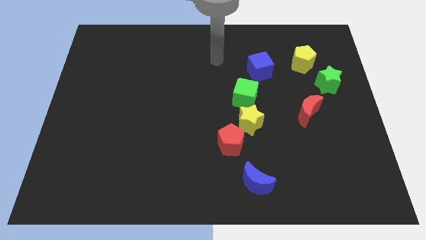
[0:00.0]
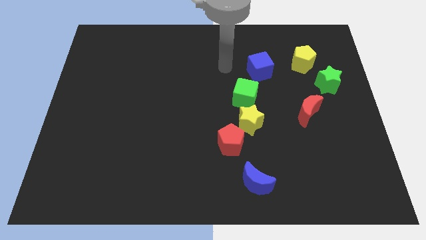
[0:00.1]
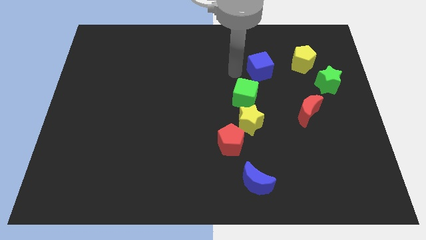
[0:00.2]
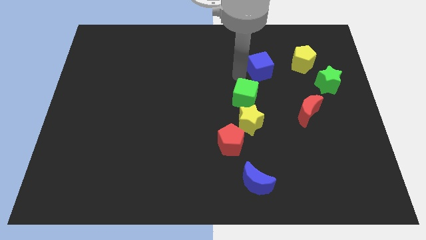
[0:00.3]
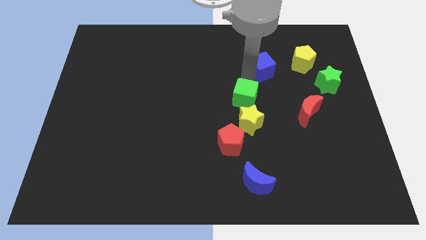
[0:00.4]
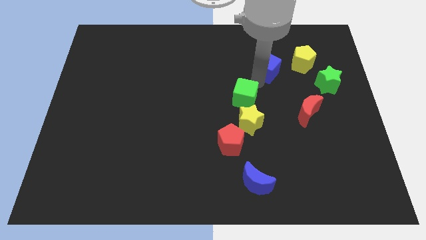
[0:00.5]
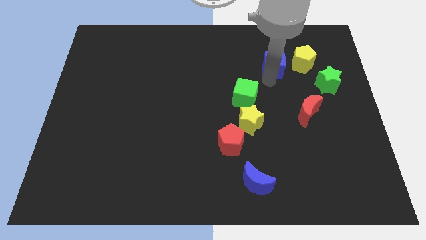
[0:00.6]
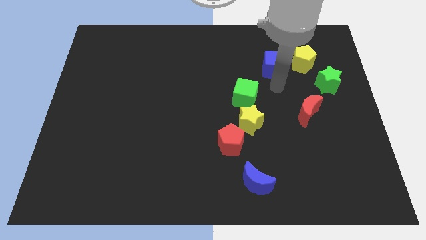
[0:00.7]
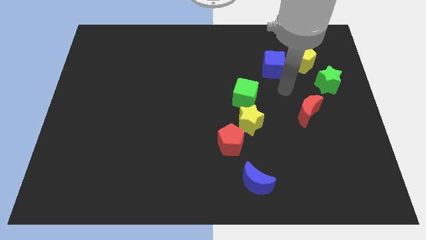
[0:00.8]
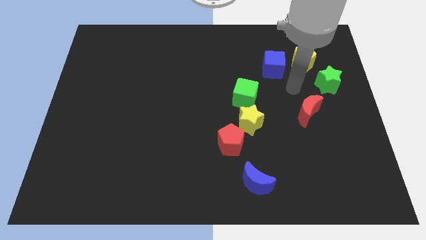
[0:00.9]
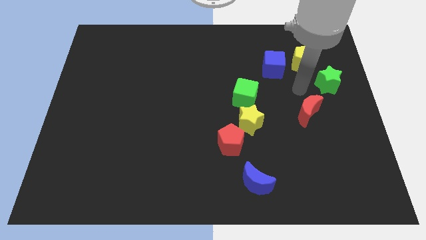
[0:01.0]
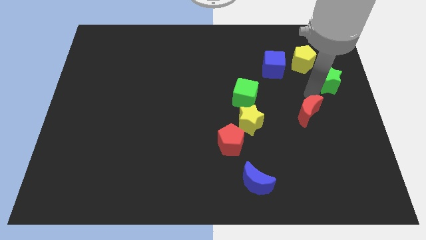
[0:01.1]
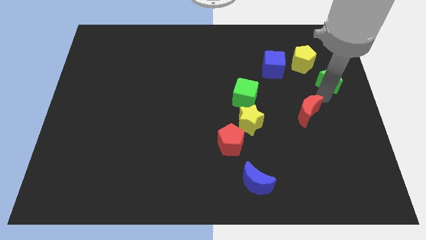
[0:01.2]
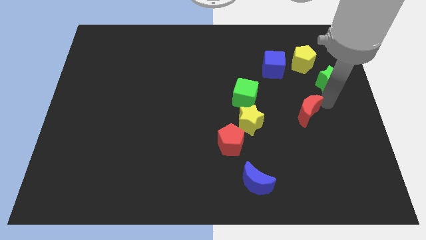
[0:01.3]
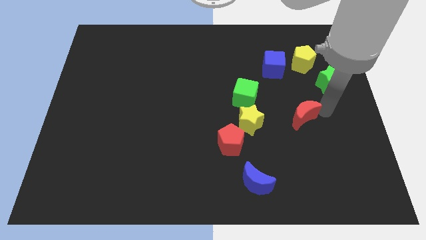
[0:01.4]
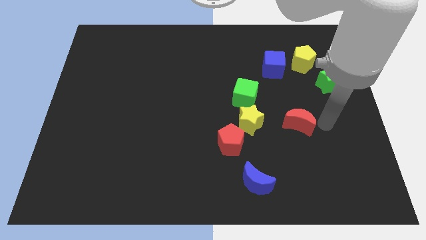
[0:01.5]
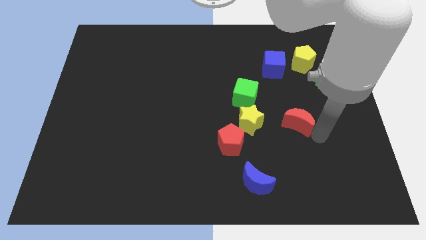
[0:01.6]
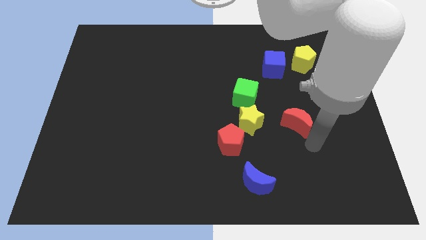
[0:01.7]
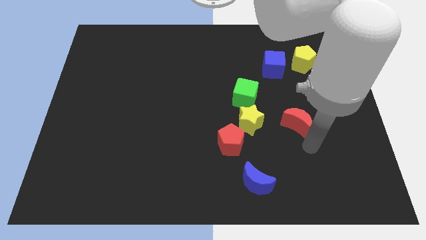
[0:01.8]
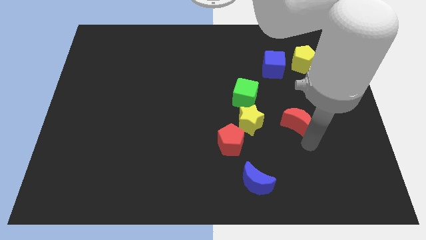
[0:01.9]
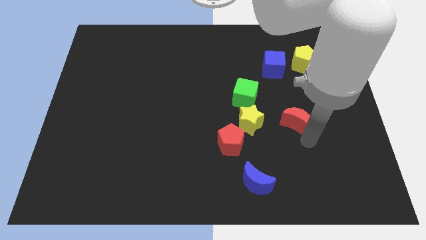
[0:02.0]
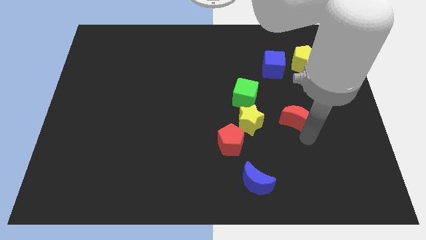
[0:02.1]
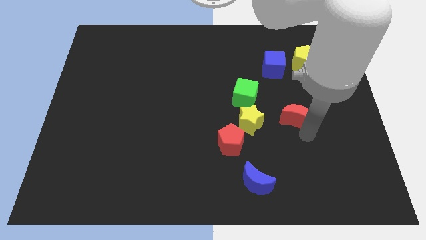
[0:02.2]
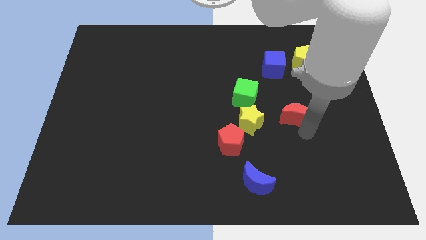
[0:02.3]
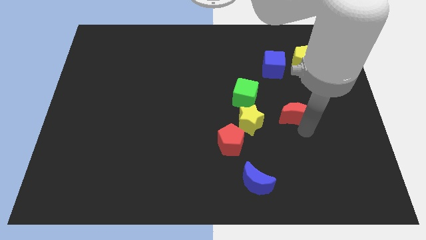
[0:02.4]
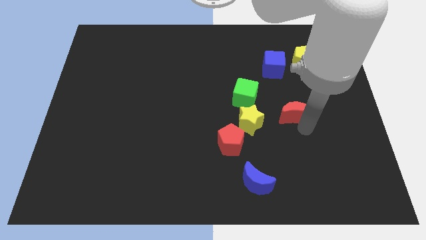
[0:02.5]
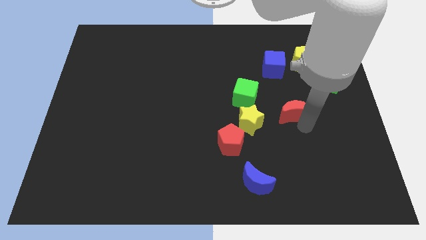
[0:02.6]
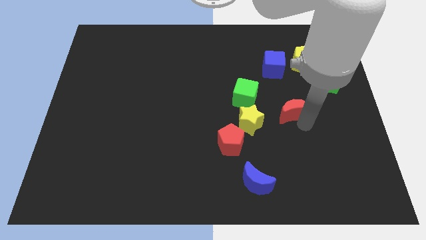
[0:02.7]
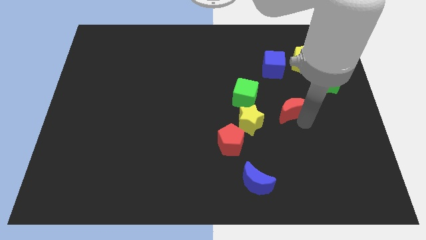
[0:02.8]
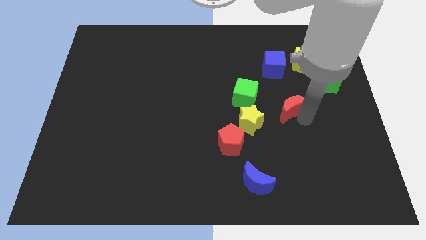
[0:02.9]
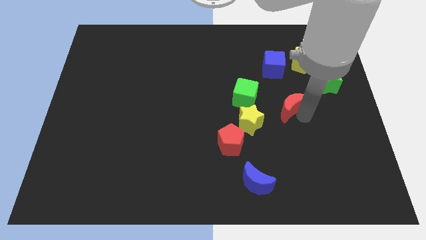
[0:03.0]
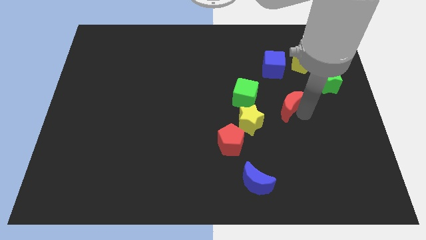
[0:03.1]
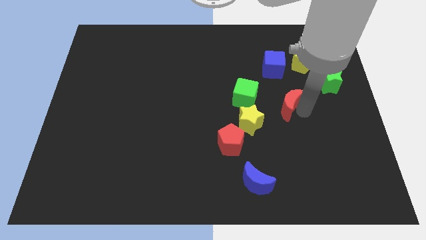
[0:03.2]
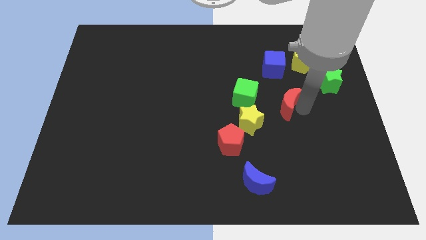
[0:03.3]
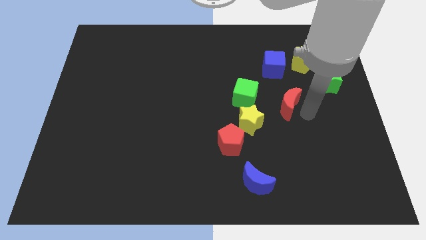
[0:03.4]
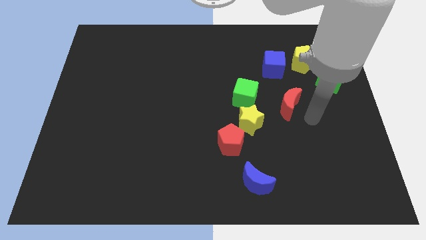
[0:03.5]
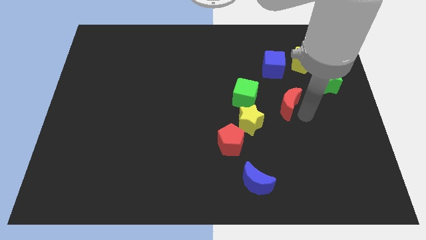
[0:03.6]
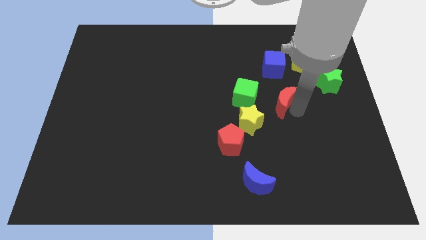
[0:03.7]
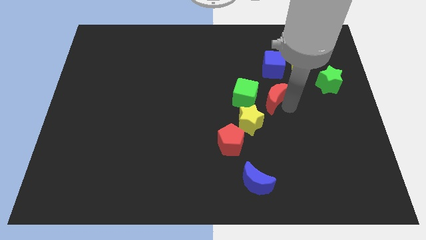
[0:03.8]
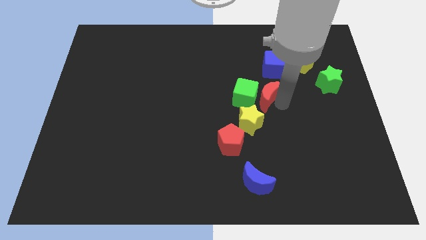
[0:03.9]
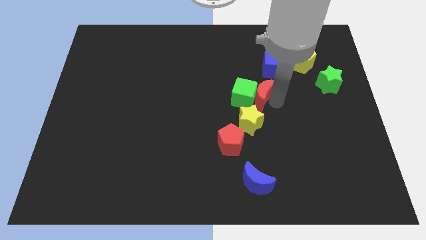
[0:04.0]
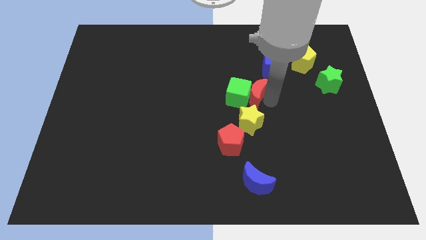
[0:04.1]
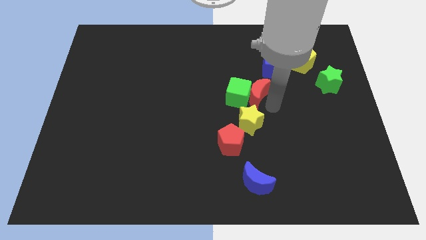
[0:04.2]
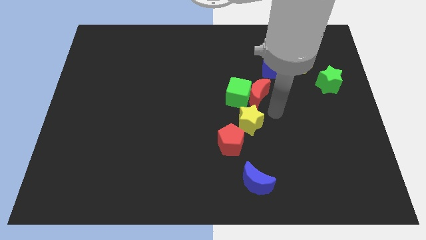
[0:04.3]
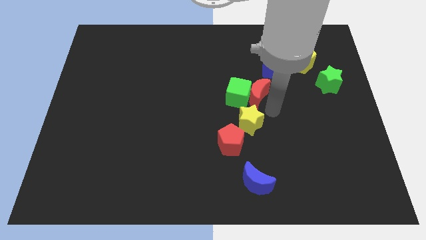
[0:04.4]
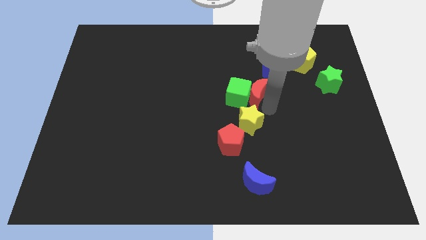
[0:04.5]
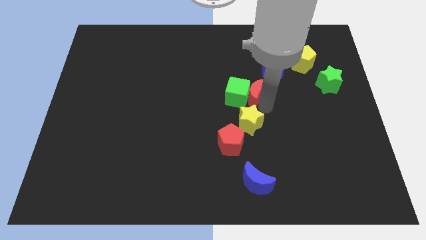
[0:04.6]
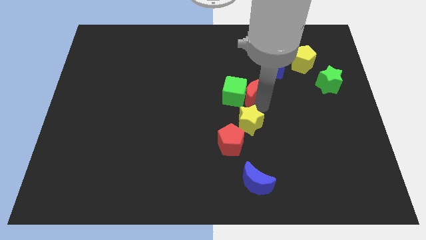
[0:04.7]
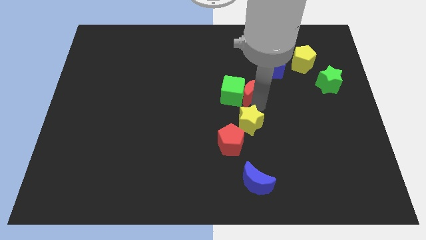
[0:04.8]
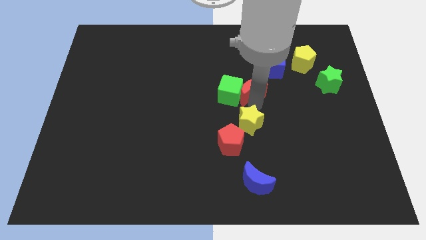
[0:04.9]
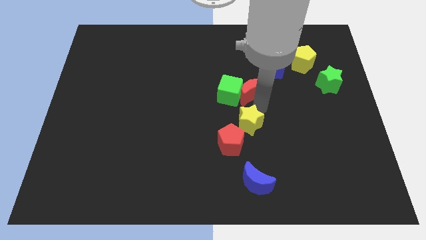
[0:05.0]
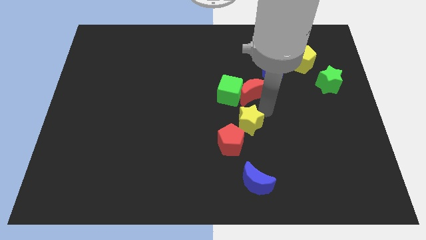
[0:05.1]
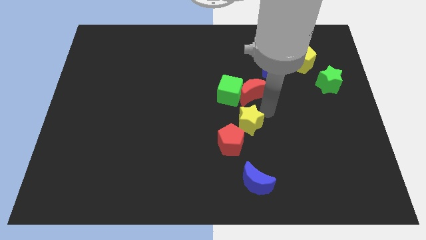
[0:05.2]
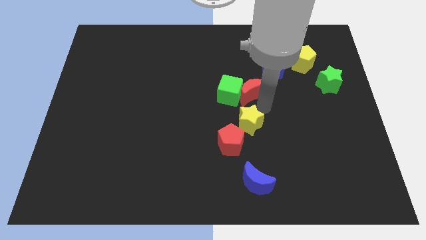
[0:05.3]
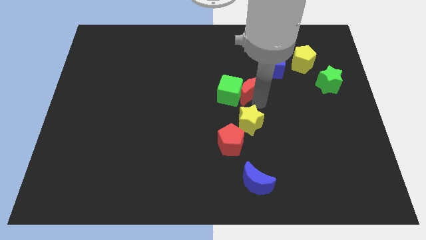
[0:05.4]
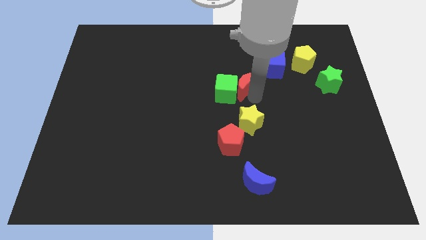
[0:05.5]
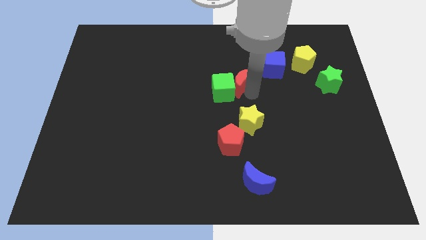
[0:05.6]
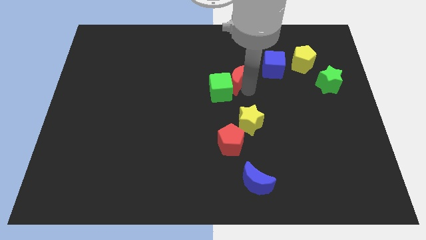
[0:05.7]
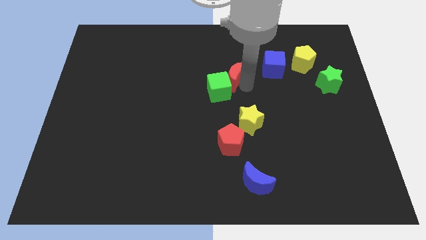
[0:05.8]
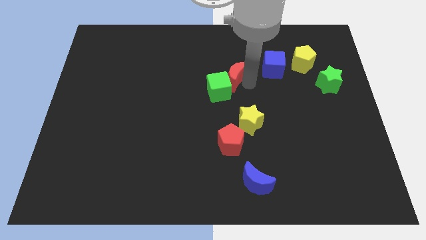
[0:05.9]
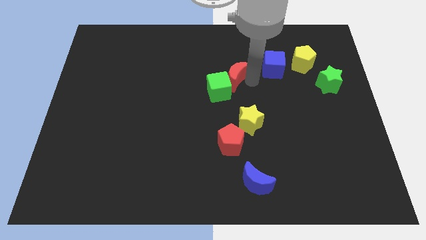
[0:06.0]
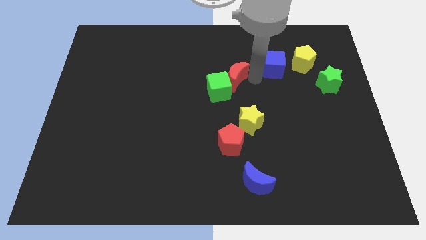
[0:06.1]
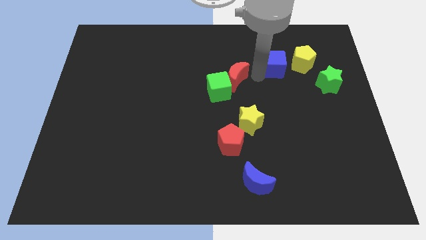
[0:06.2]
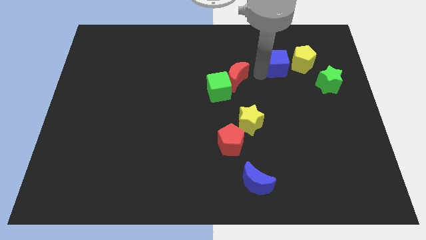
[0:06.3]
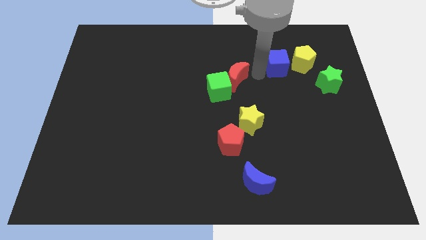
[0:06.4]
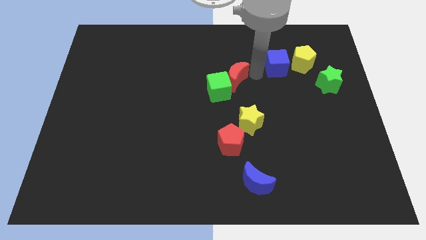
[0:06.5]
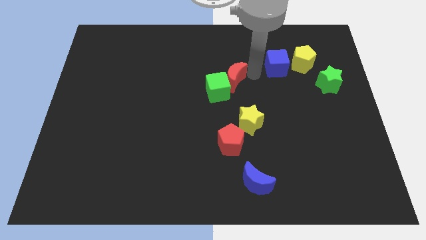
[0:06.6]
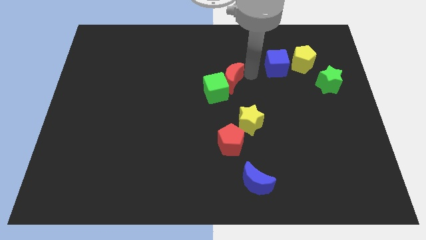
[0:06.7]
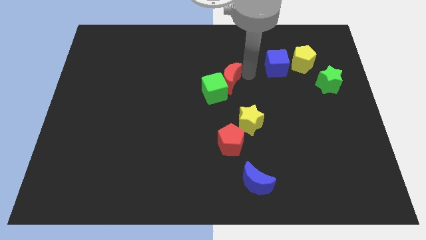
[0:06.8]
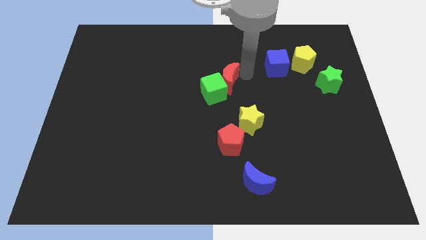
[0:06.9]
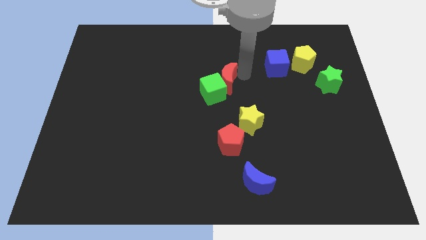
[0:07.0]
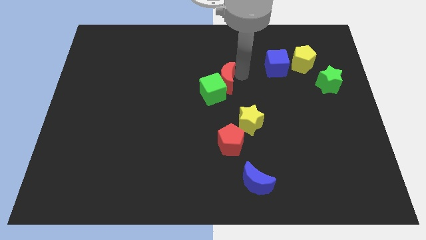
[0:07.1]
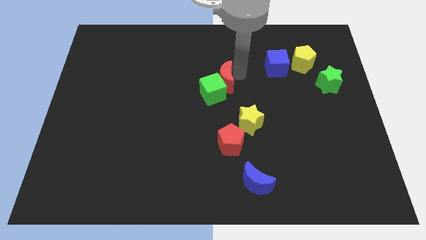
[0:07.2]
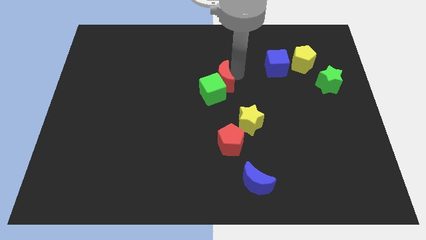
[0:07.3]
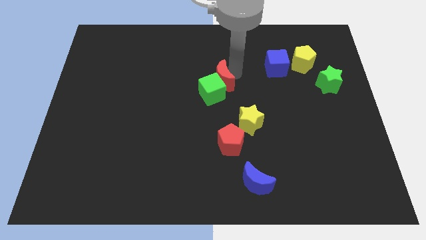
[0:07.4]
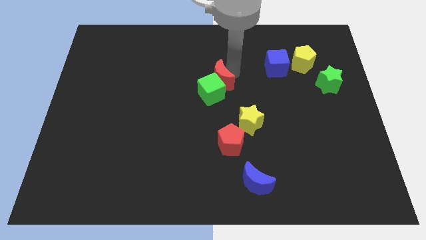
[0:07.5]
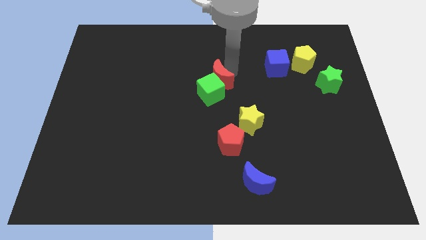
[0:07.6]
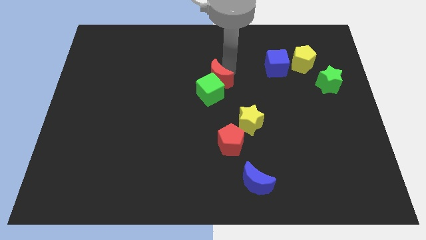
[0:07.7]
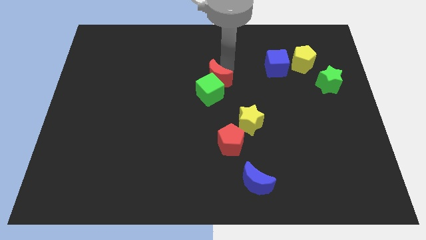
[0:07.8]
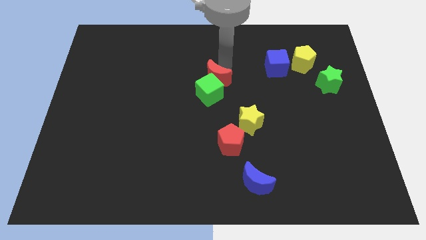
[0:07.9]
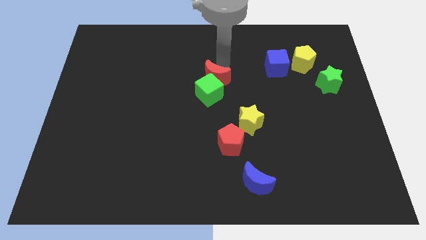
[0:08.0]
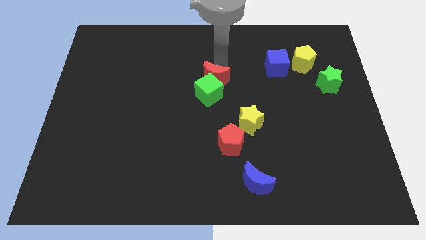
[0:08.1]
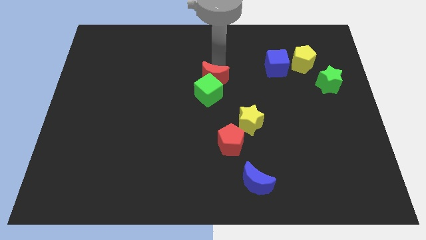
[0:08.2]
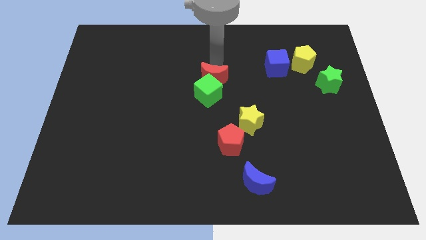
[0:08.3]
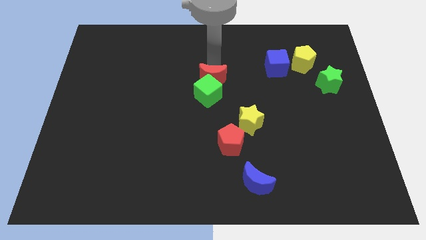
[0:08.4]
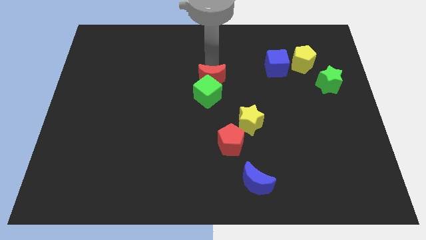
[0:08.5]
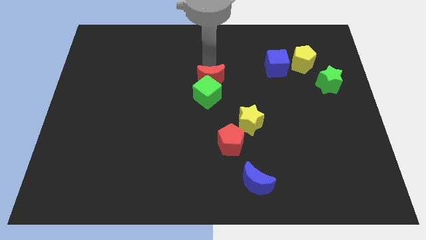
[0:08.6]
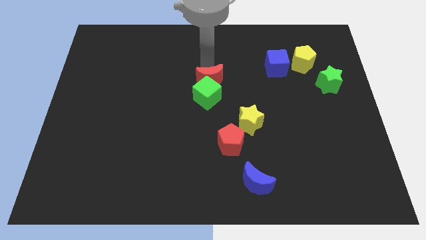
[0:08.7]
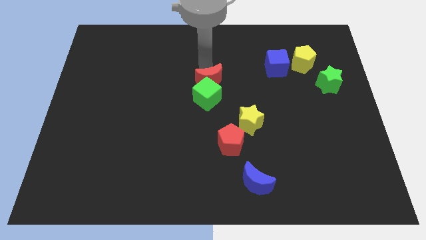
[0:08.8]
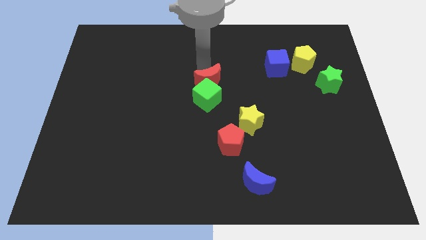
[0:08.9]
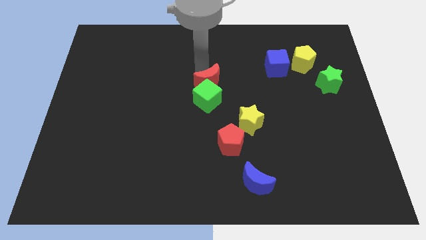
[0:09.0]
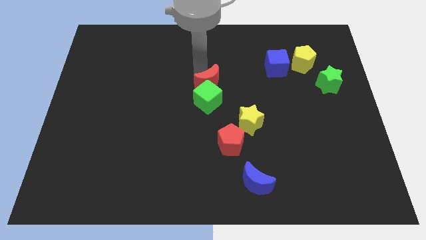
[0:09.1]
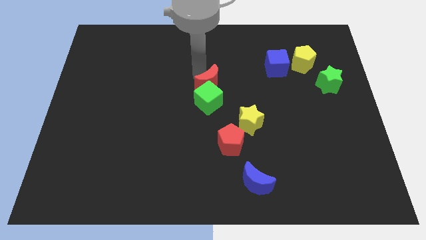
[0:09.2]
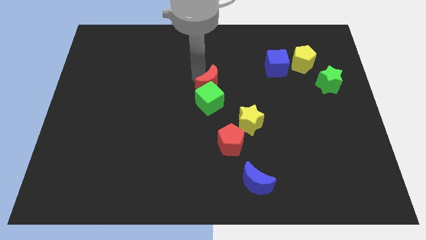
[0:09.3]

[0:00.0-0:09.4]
slide the red moon left
